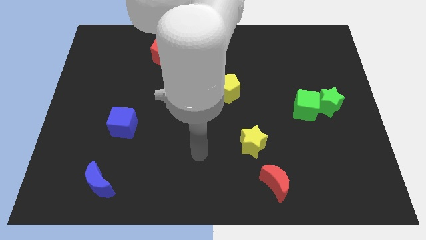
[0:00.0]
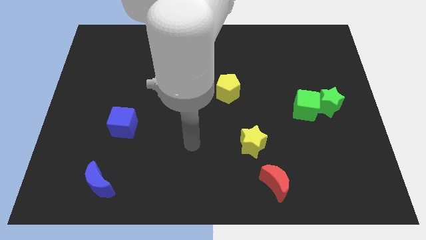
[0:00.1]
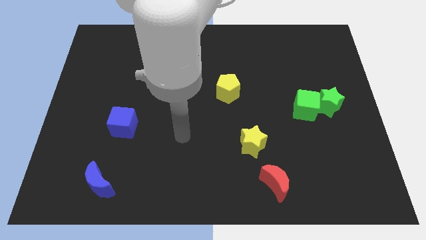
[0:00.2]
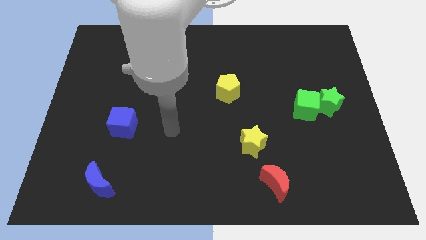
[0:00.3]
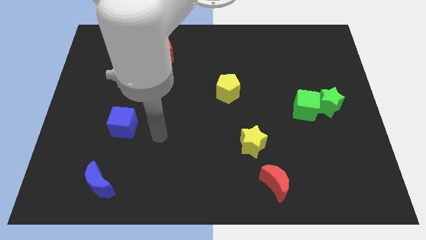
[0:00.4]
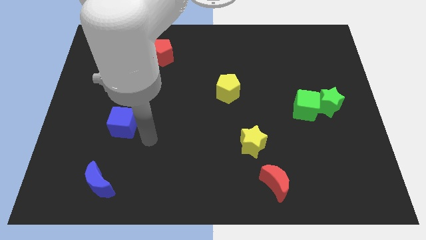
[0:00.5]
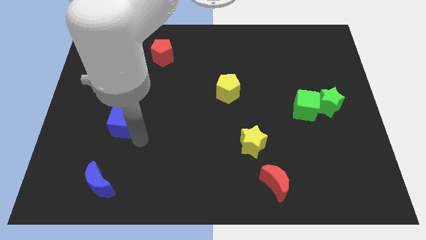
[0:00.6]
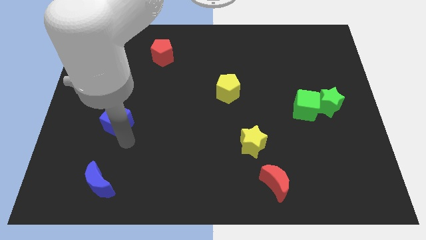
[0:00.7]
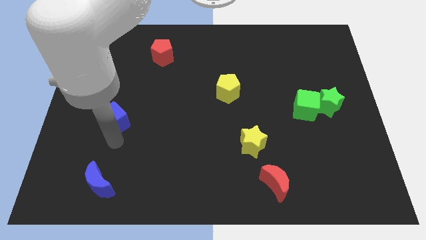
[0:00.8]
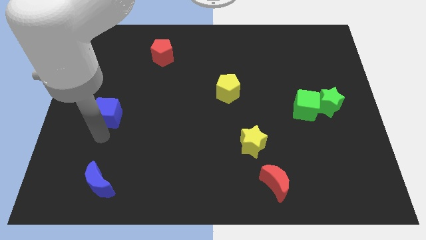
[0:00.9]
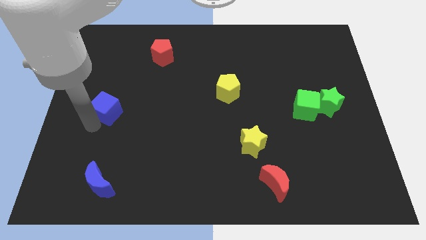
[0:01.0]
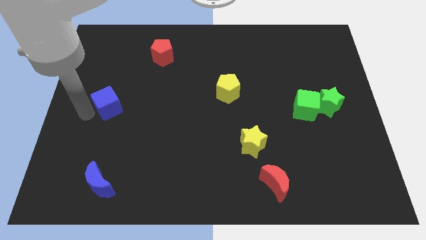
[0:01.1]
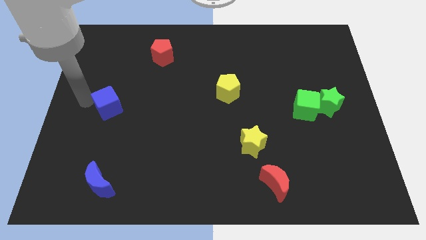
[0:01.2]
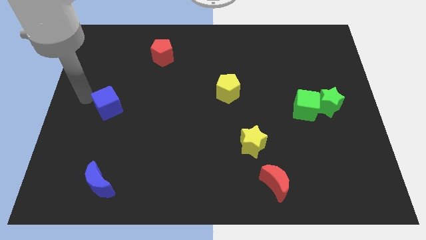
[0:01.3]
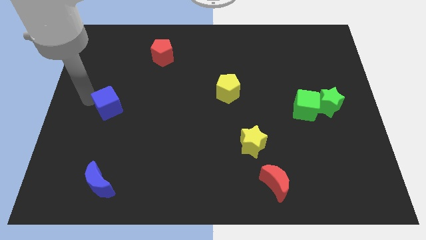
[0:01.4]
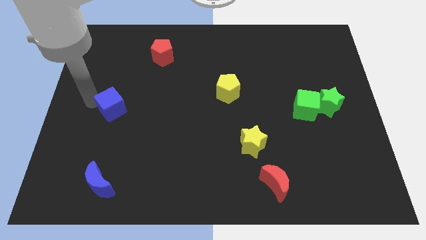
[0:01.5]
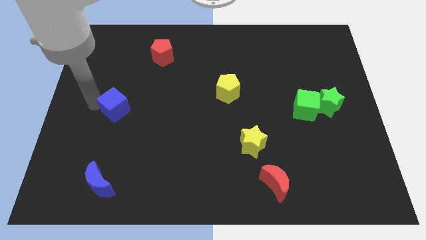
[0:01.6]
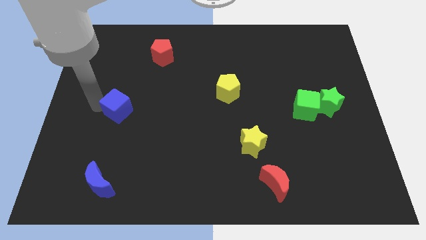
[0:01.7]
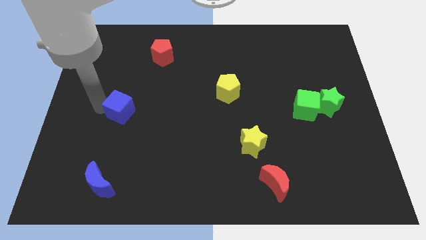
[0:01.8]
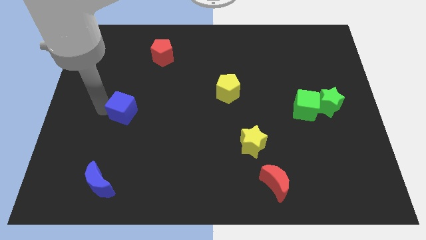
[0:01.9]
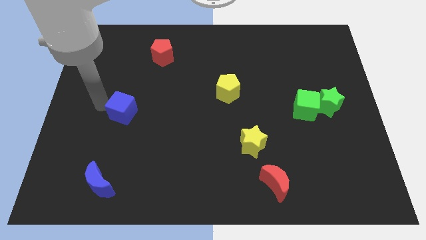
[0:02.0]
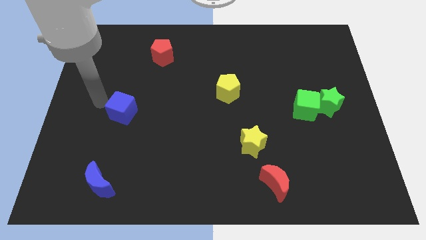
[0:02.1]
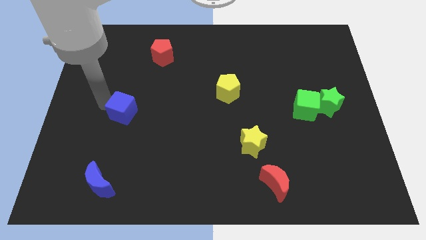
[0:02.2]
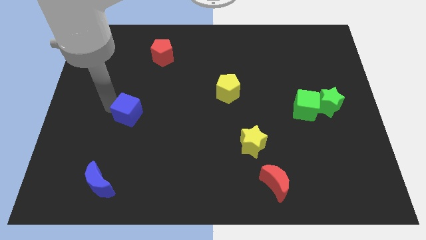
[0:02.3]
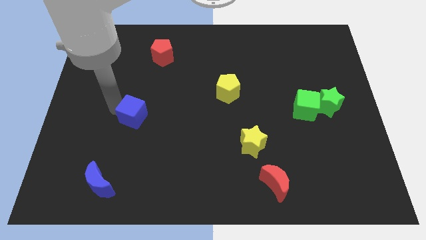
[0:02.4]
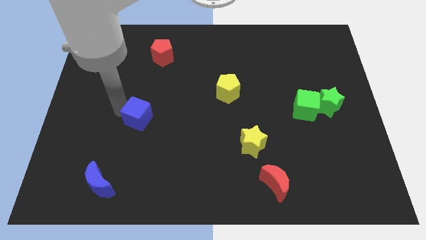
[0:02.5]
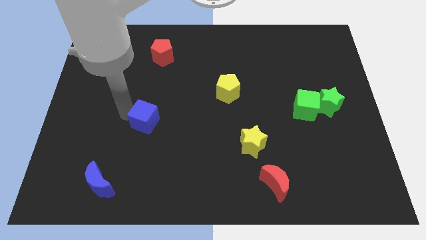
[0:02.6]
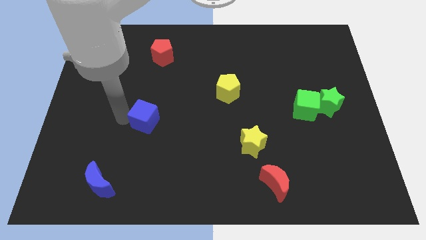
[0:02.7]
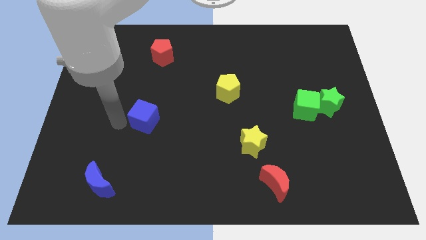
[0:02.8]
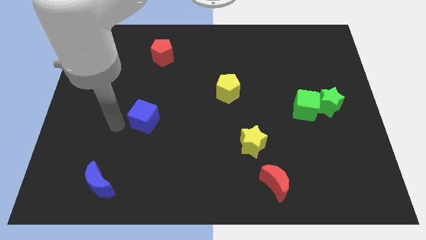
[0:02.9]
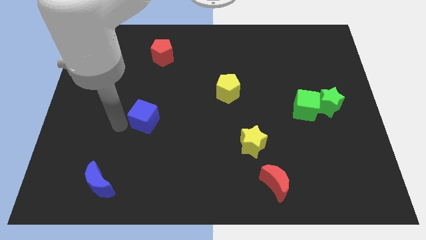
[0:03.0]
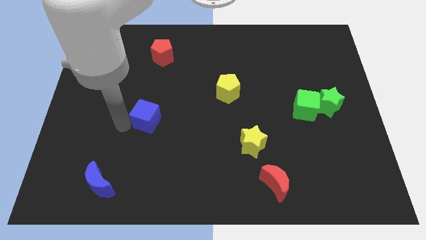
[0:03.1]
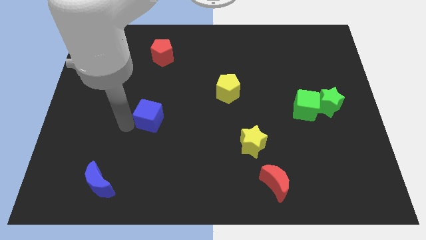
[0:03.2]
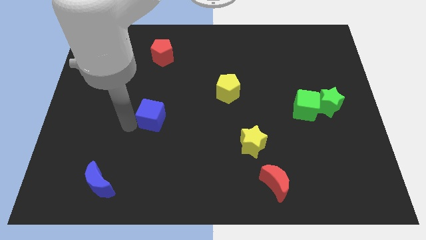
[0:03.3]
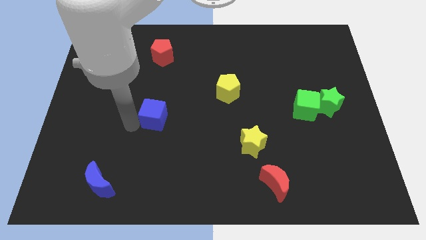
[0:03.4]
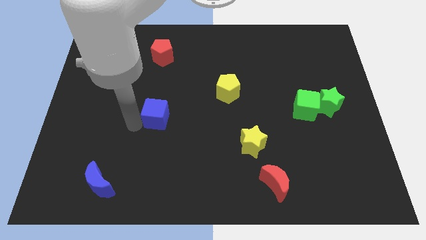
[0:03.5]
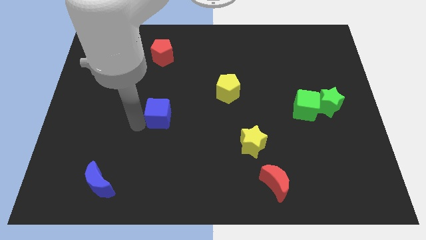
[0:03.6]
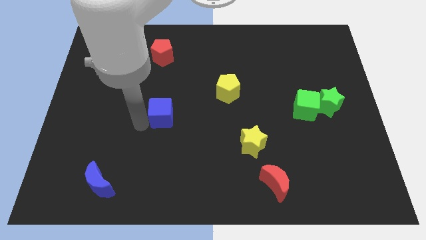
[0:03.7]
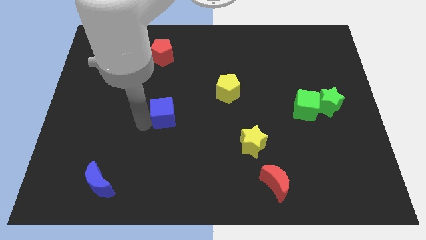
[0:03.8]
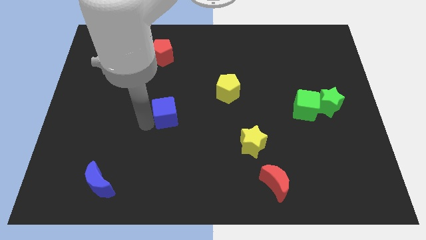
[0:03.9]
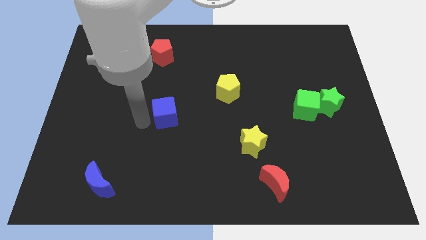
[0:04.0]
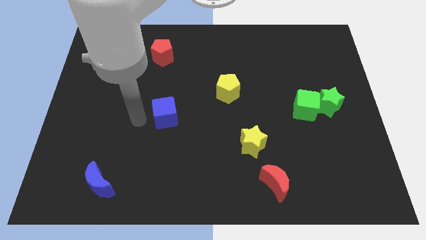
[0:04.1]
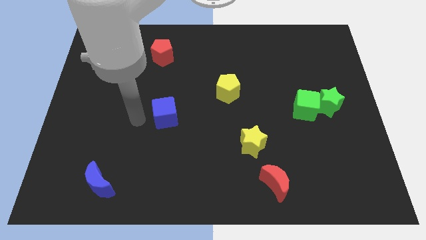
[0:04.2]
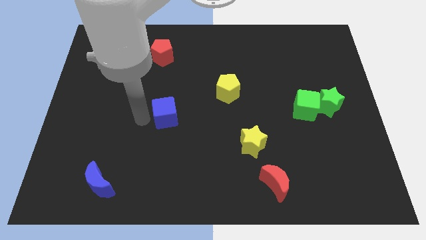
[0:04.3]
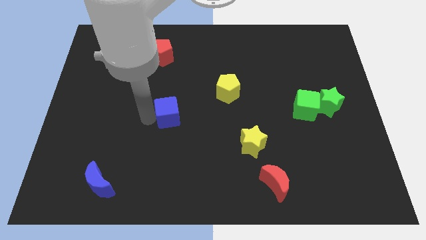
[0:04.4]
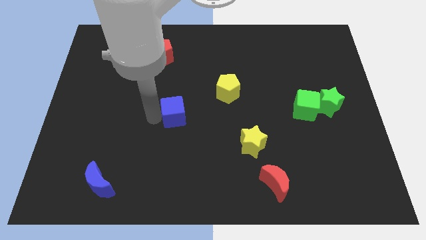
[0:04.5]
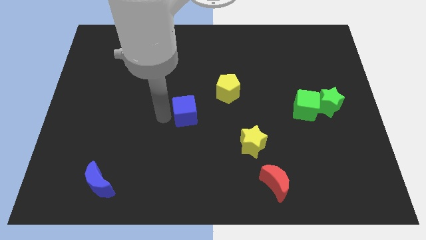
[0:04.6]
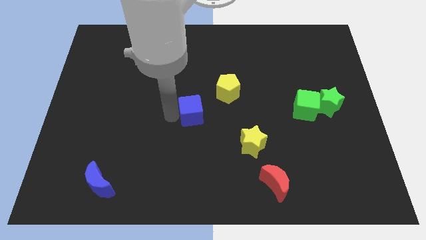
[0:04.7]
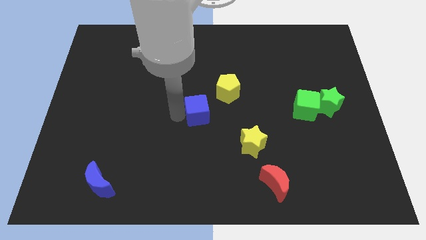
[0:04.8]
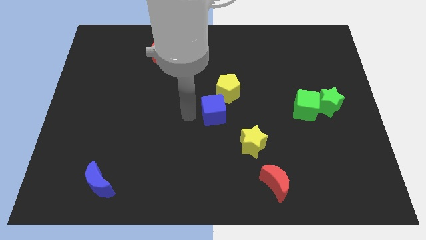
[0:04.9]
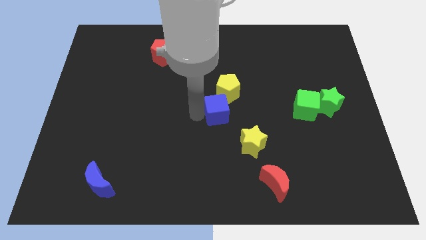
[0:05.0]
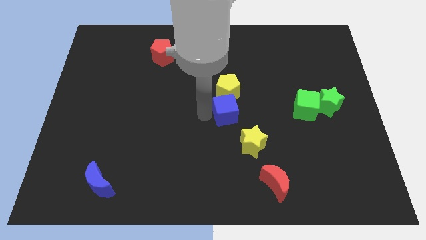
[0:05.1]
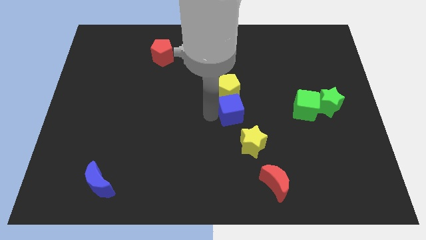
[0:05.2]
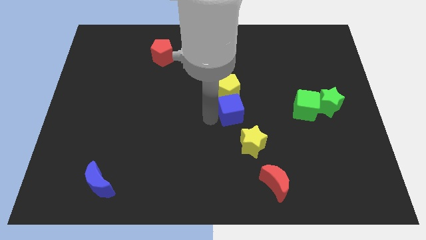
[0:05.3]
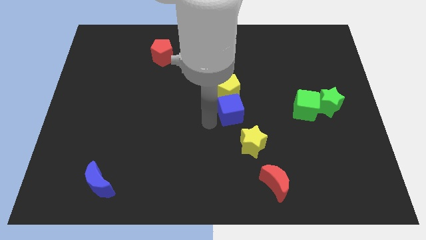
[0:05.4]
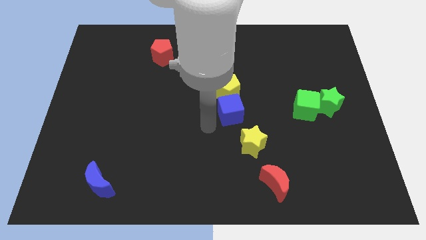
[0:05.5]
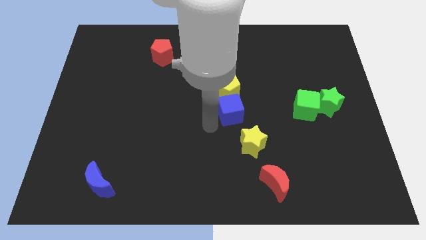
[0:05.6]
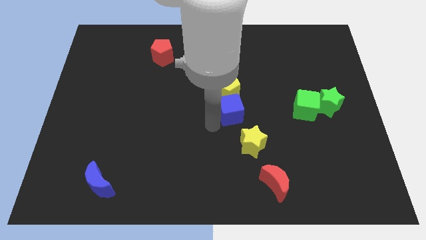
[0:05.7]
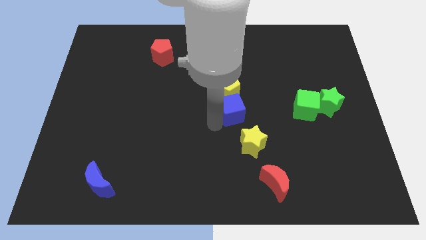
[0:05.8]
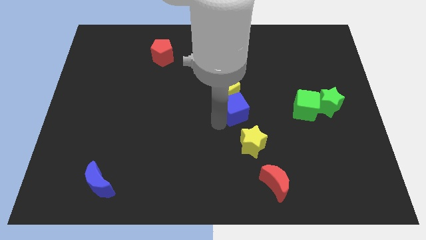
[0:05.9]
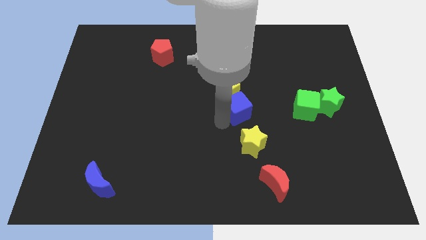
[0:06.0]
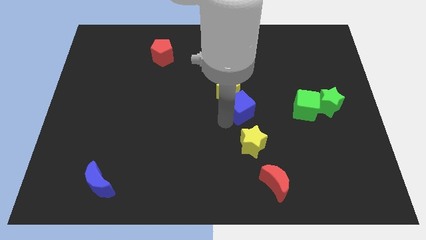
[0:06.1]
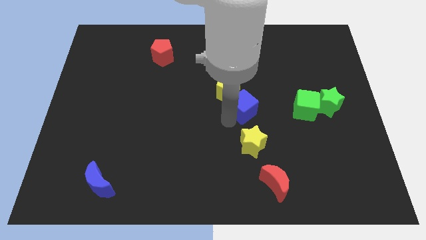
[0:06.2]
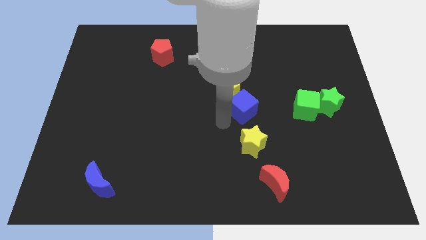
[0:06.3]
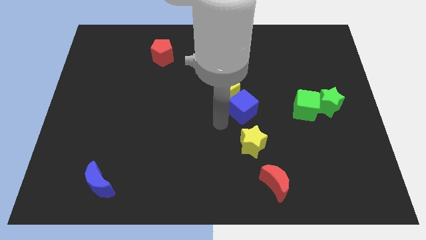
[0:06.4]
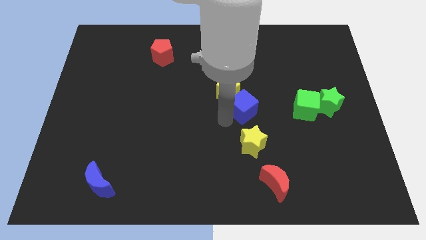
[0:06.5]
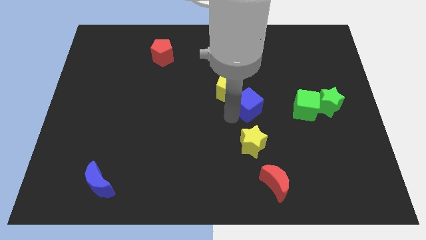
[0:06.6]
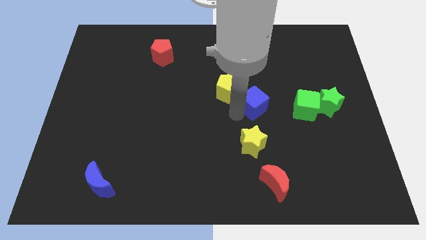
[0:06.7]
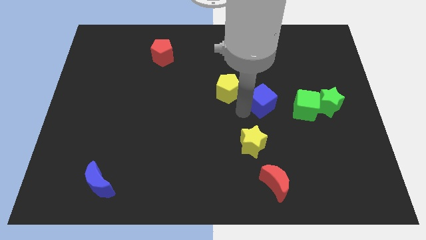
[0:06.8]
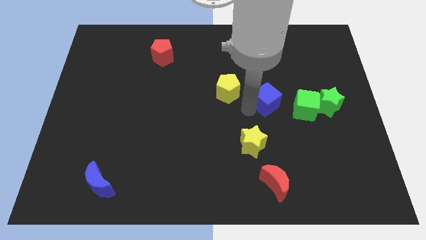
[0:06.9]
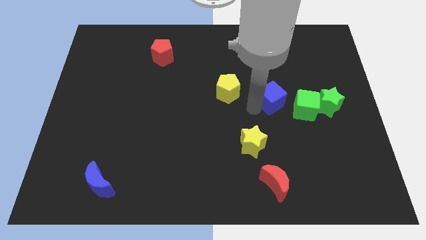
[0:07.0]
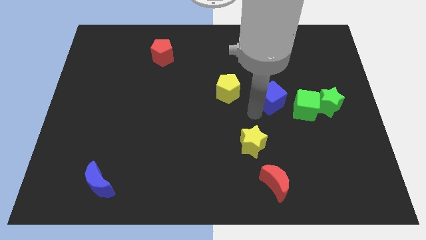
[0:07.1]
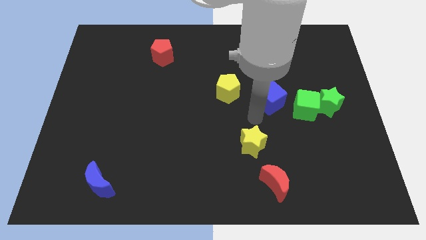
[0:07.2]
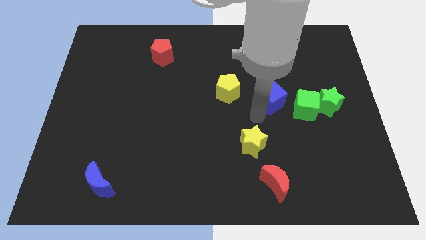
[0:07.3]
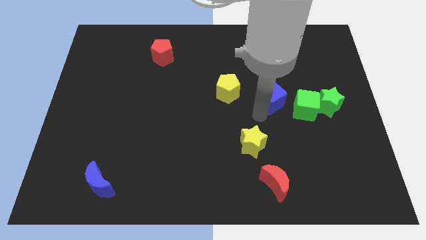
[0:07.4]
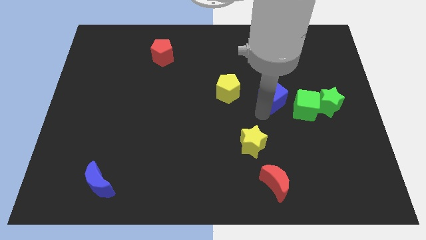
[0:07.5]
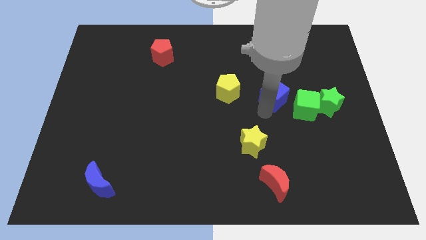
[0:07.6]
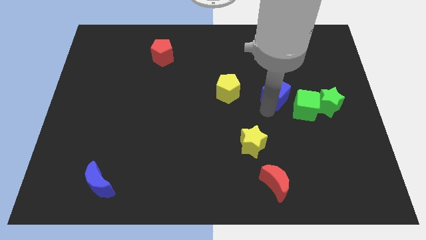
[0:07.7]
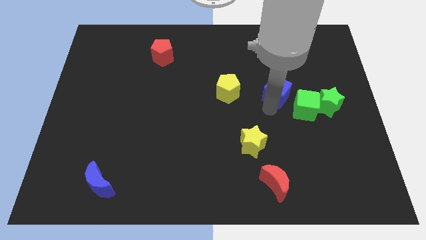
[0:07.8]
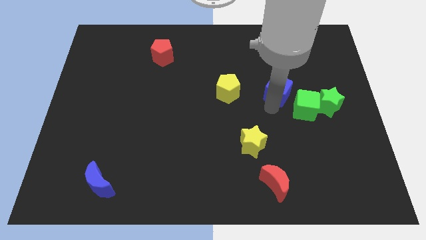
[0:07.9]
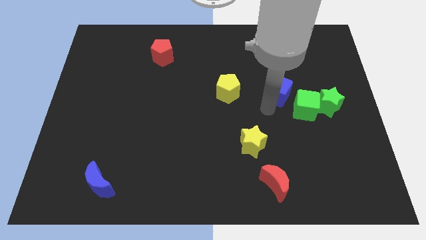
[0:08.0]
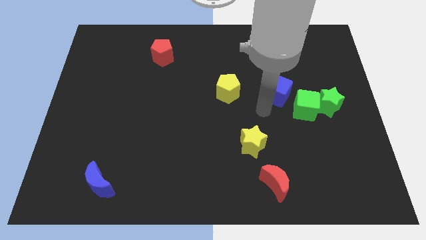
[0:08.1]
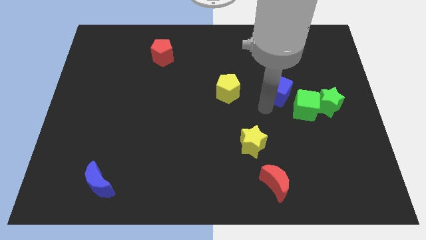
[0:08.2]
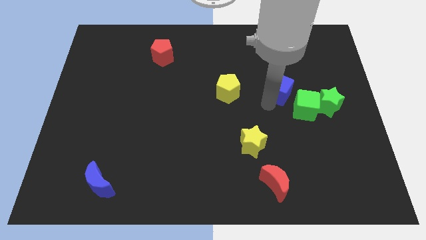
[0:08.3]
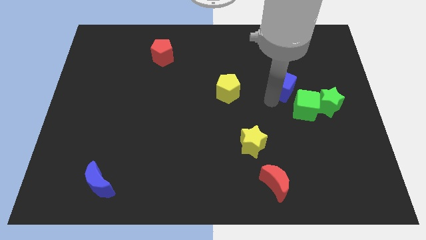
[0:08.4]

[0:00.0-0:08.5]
slide the blue cube to the top side of the green cube
